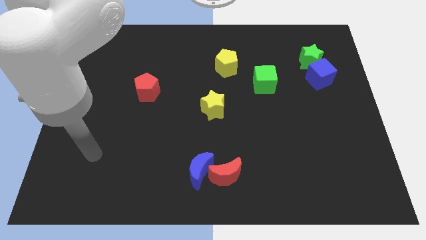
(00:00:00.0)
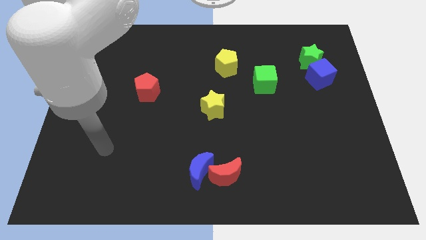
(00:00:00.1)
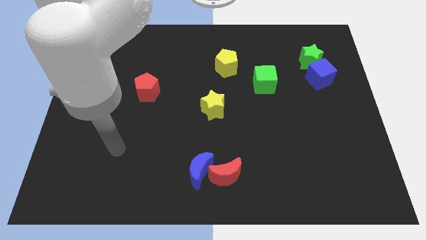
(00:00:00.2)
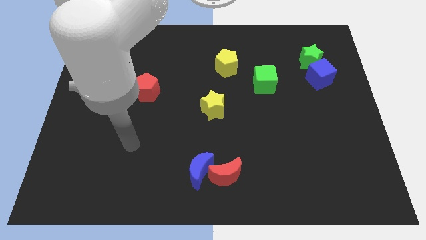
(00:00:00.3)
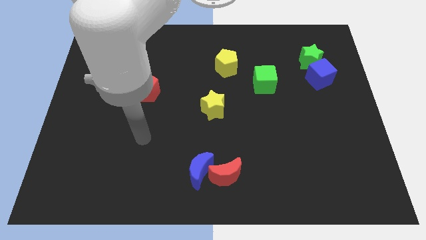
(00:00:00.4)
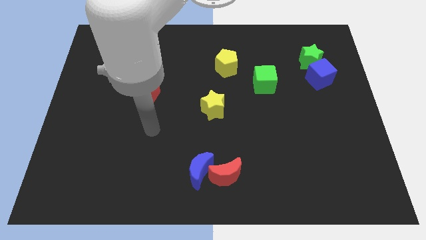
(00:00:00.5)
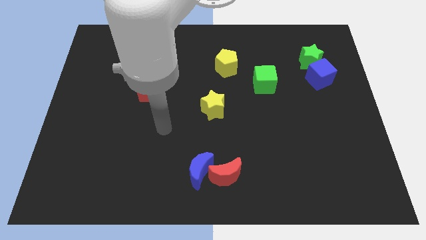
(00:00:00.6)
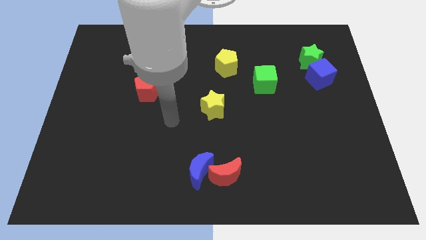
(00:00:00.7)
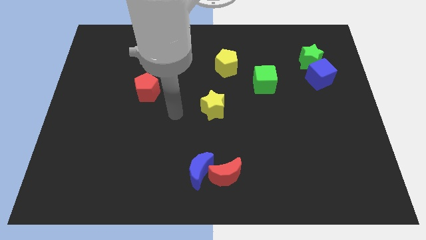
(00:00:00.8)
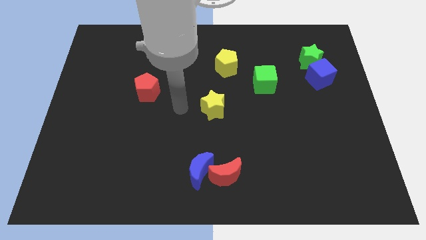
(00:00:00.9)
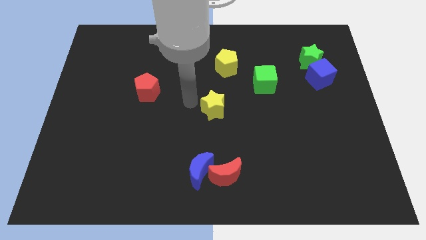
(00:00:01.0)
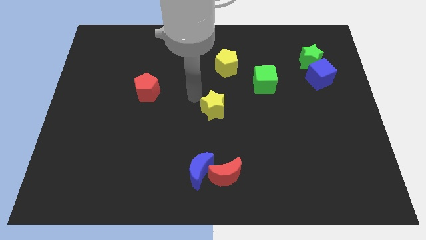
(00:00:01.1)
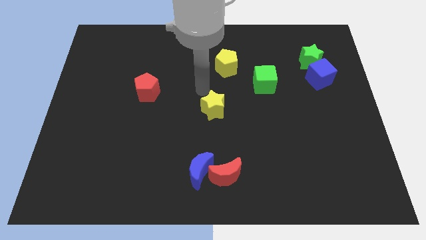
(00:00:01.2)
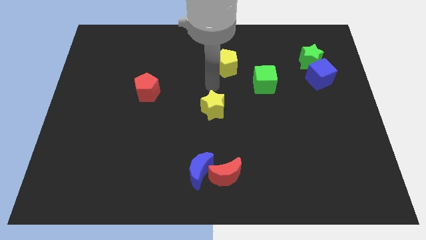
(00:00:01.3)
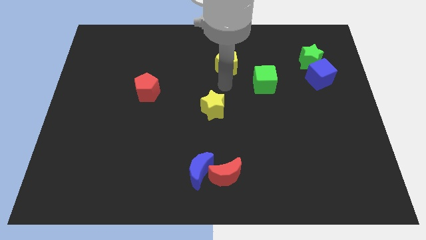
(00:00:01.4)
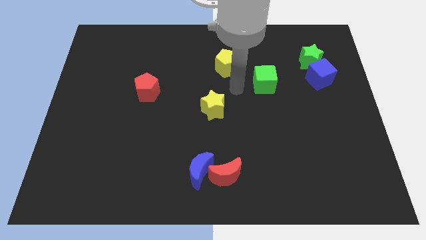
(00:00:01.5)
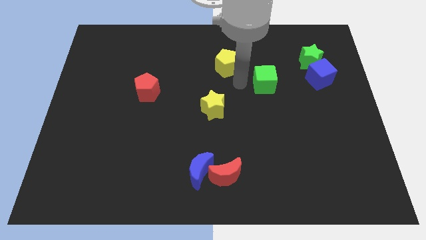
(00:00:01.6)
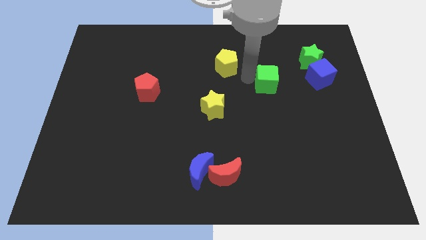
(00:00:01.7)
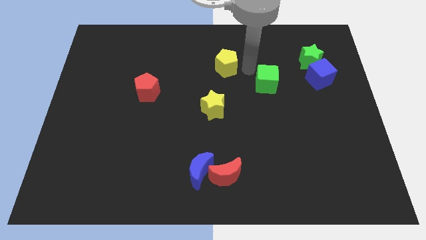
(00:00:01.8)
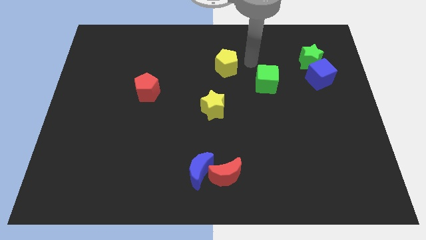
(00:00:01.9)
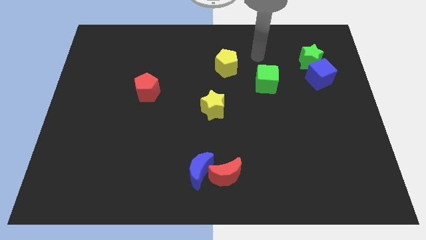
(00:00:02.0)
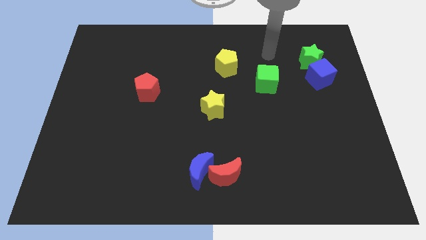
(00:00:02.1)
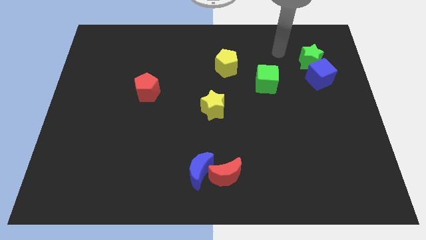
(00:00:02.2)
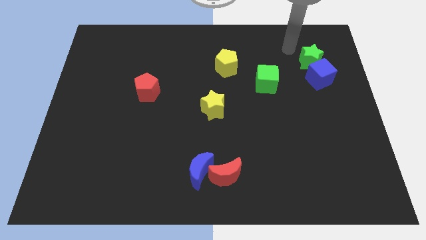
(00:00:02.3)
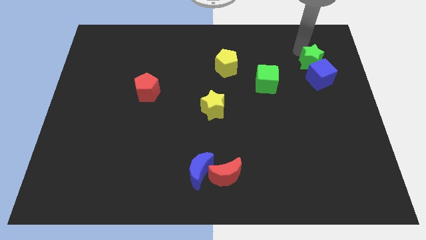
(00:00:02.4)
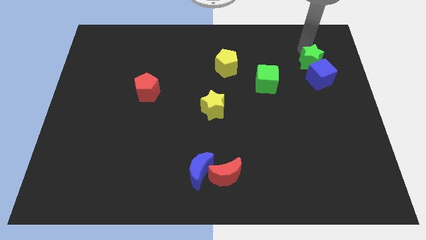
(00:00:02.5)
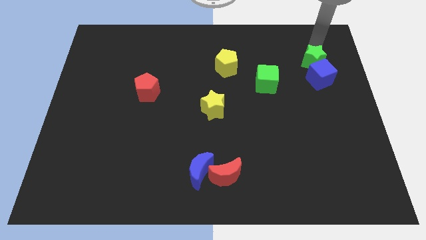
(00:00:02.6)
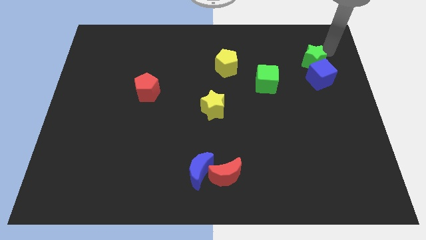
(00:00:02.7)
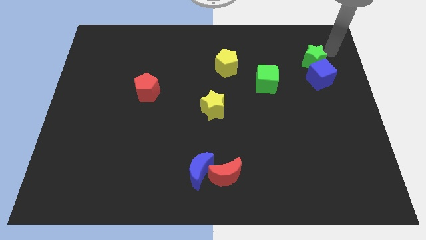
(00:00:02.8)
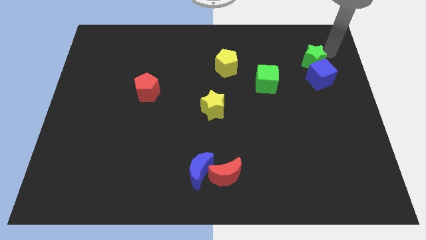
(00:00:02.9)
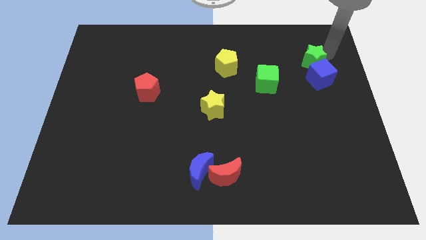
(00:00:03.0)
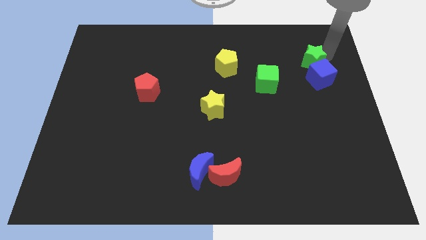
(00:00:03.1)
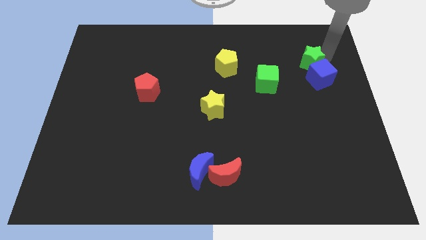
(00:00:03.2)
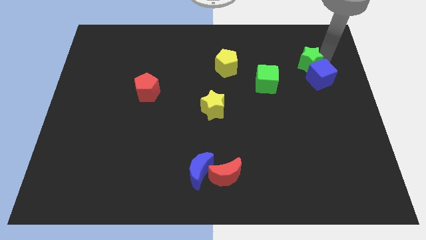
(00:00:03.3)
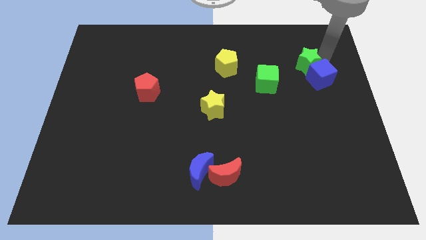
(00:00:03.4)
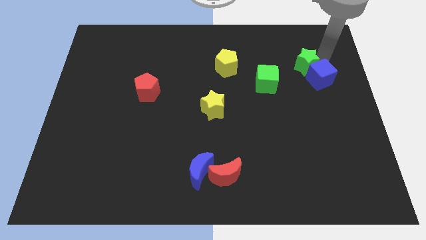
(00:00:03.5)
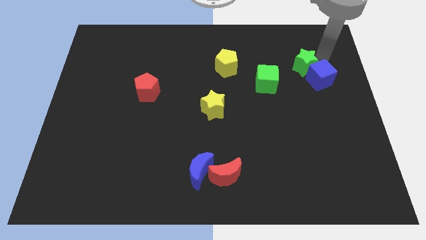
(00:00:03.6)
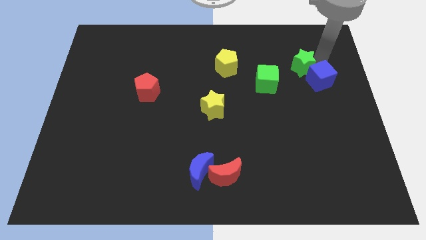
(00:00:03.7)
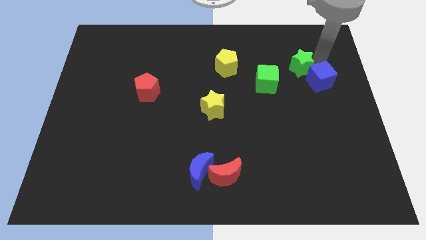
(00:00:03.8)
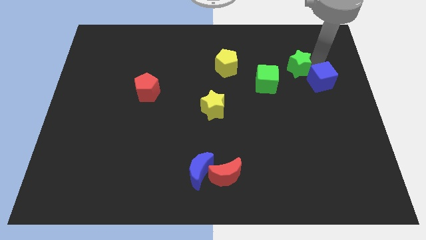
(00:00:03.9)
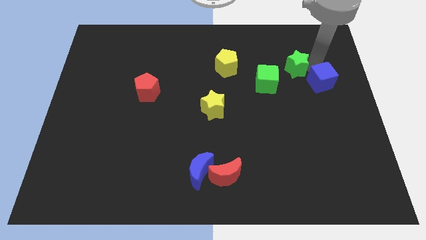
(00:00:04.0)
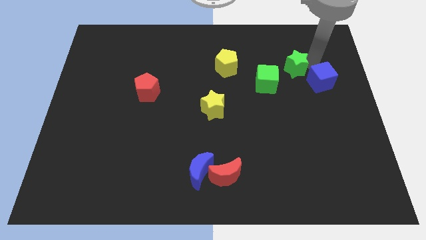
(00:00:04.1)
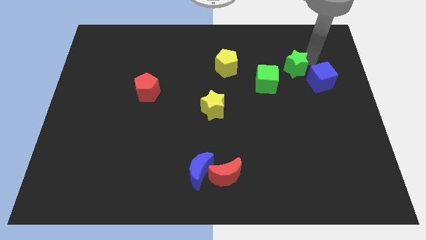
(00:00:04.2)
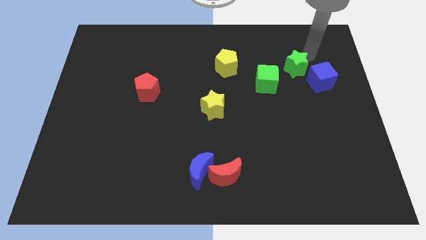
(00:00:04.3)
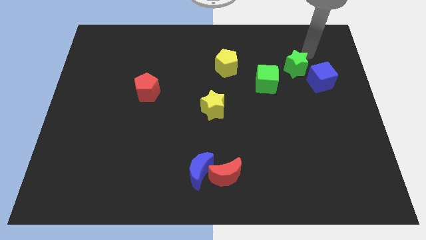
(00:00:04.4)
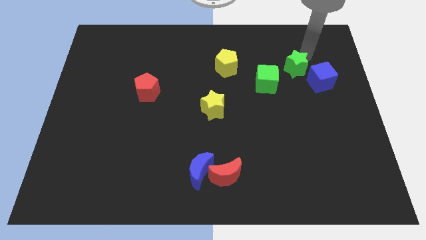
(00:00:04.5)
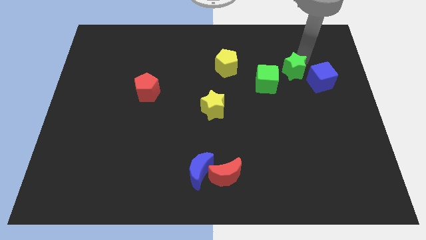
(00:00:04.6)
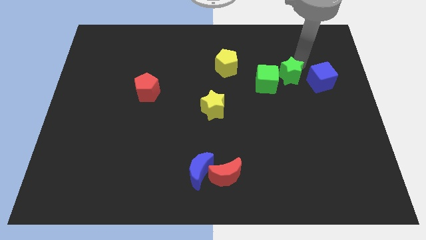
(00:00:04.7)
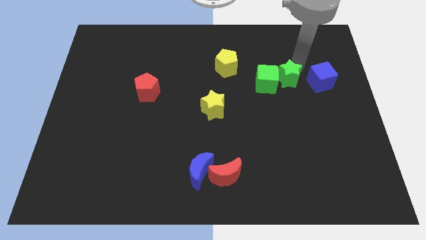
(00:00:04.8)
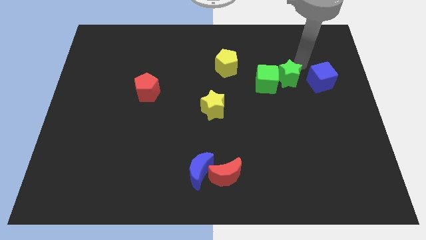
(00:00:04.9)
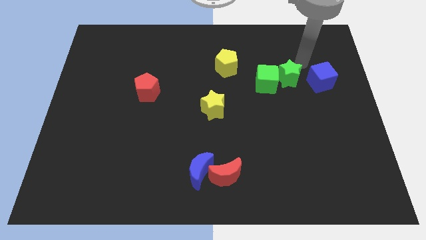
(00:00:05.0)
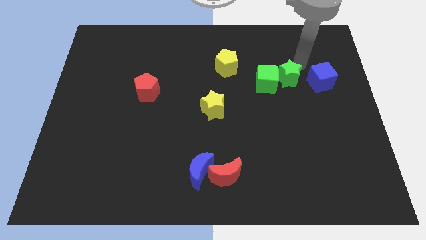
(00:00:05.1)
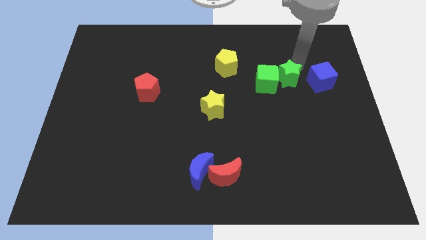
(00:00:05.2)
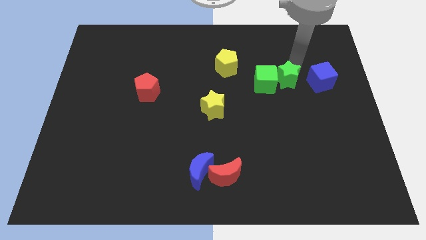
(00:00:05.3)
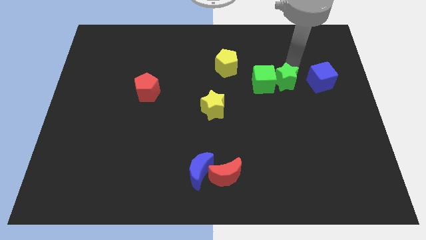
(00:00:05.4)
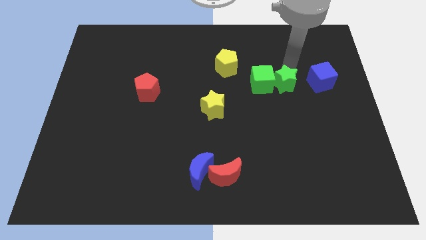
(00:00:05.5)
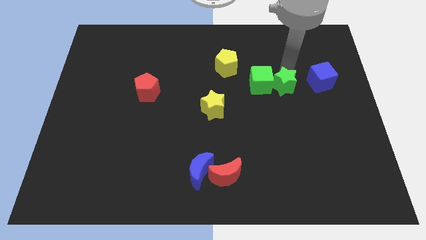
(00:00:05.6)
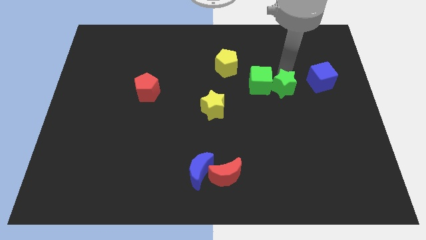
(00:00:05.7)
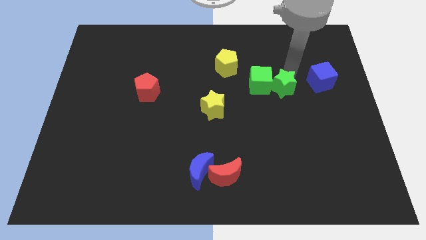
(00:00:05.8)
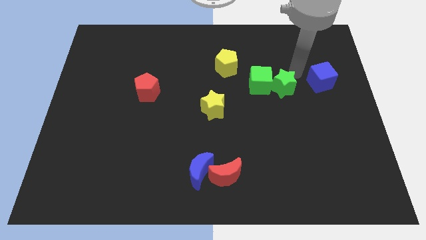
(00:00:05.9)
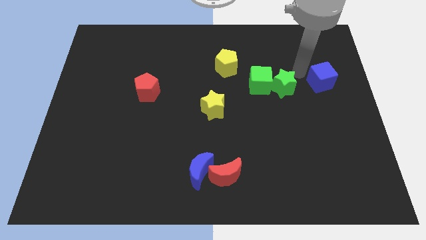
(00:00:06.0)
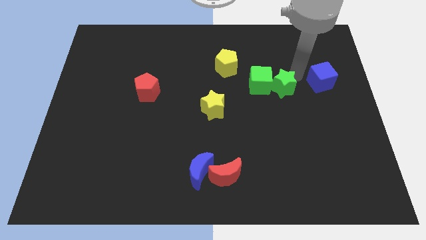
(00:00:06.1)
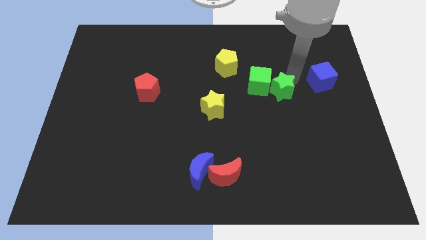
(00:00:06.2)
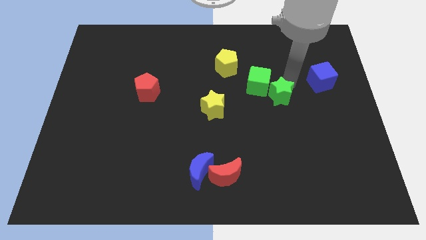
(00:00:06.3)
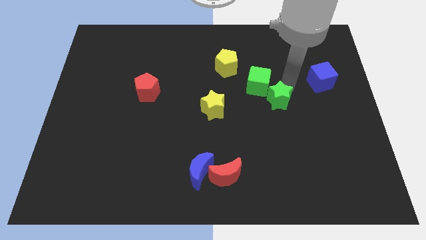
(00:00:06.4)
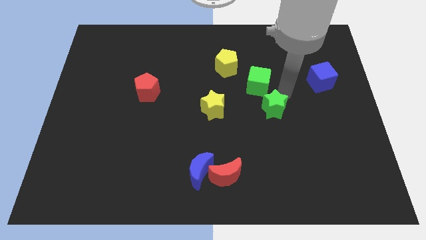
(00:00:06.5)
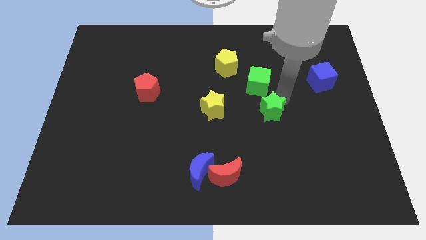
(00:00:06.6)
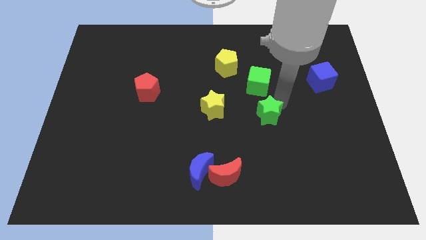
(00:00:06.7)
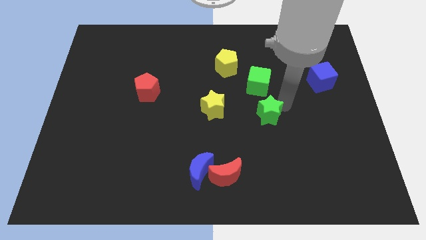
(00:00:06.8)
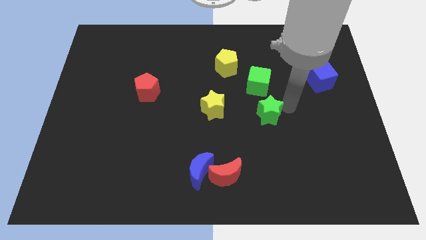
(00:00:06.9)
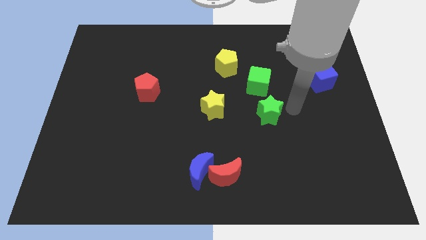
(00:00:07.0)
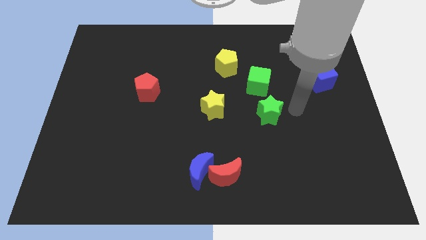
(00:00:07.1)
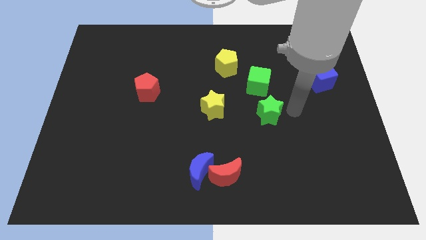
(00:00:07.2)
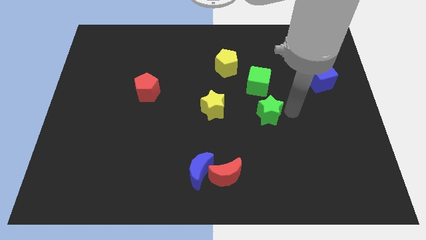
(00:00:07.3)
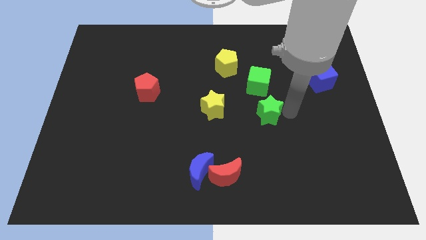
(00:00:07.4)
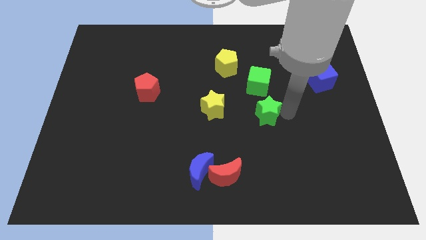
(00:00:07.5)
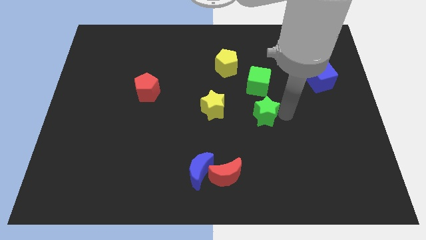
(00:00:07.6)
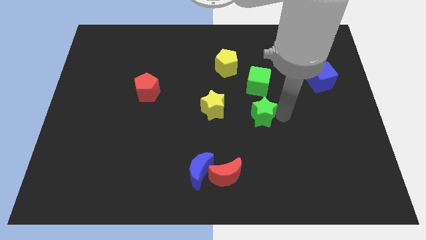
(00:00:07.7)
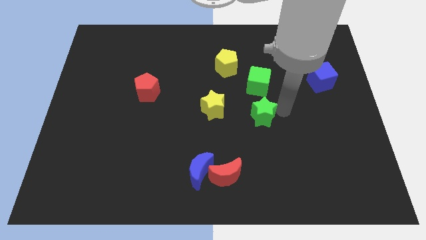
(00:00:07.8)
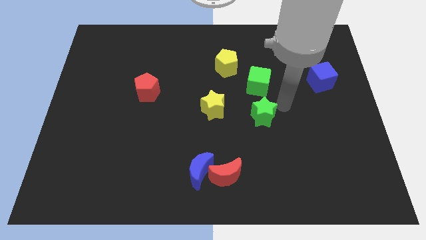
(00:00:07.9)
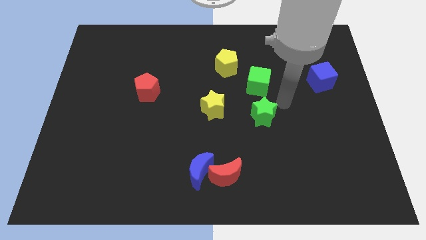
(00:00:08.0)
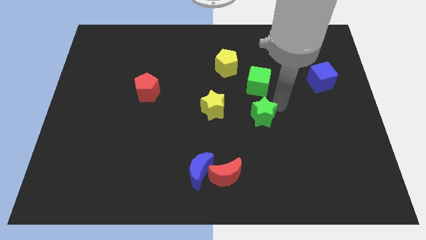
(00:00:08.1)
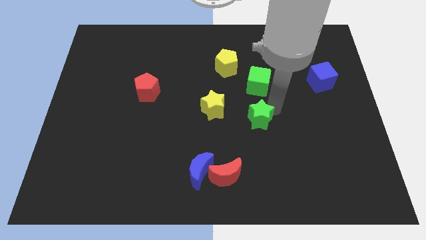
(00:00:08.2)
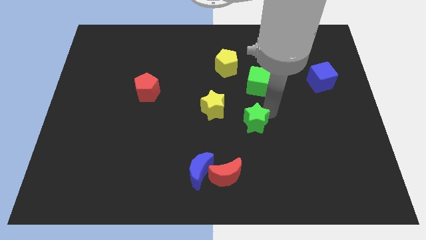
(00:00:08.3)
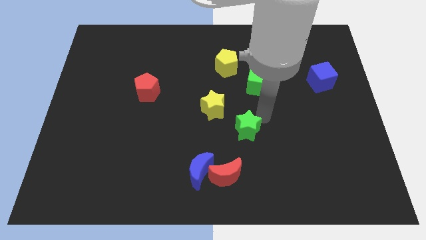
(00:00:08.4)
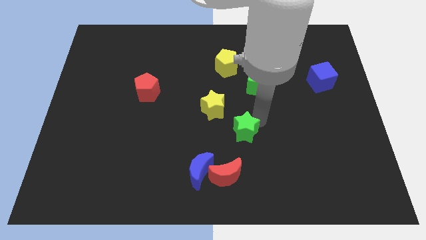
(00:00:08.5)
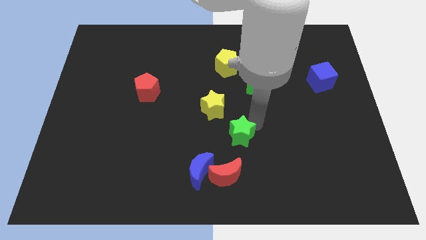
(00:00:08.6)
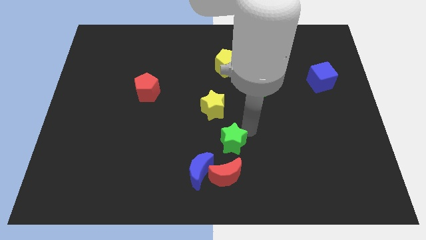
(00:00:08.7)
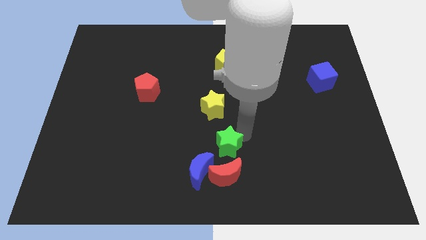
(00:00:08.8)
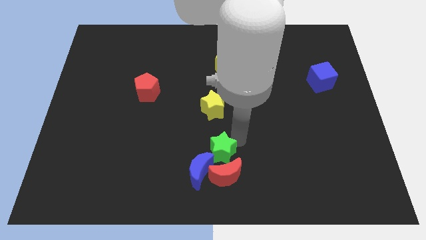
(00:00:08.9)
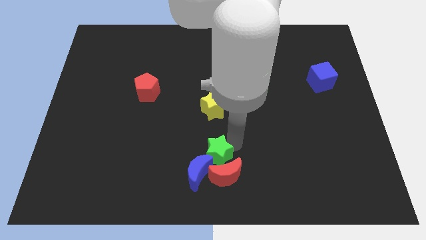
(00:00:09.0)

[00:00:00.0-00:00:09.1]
slide the green star next to the blue moon
